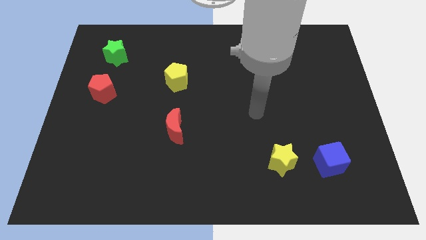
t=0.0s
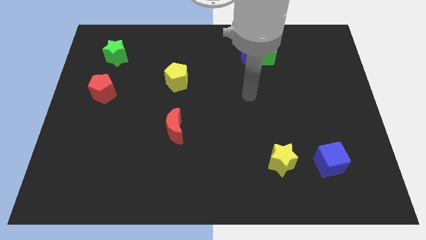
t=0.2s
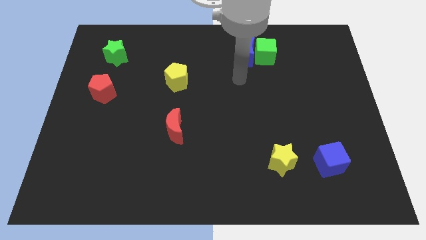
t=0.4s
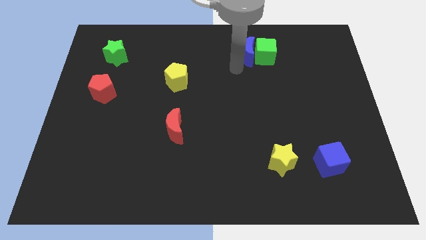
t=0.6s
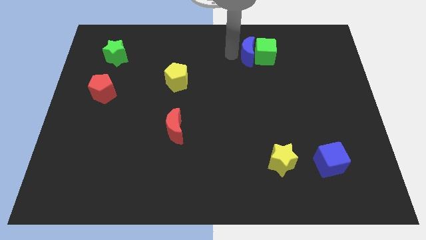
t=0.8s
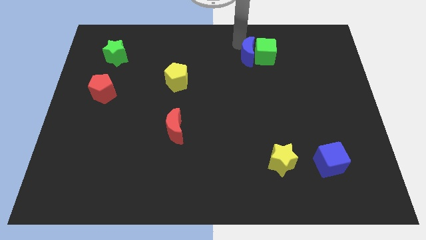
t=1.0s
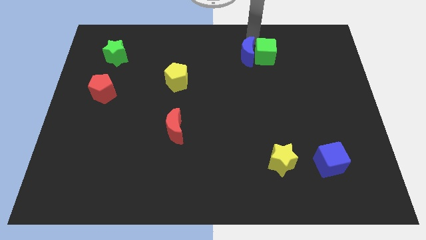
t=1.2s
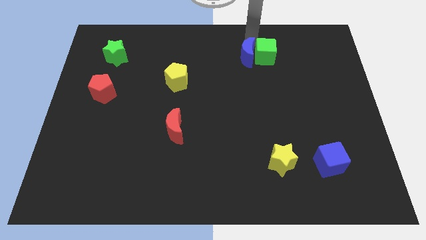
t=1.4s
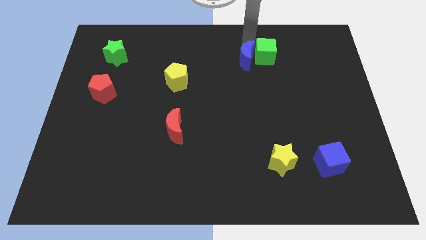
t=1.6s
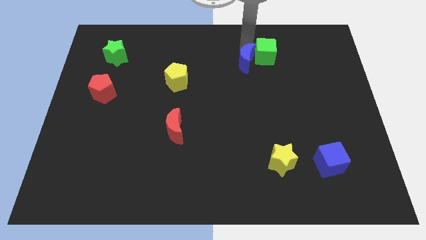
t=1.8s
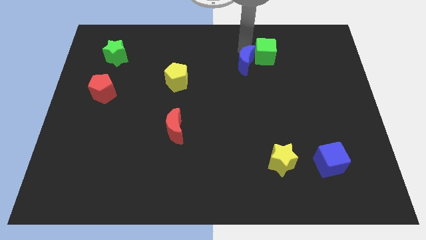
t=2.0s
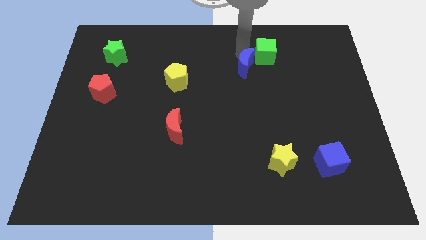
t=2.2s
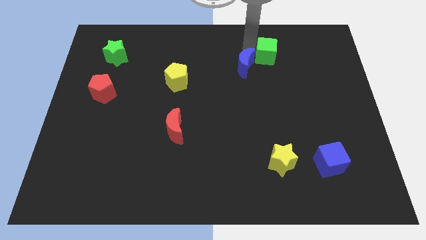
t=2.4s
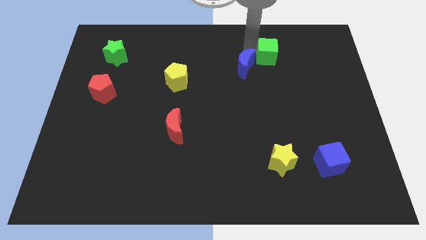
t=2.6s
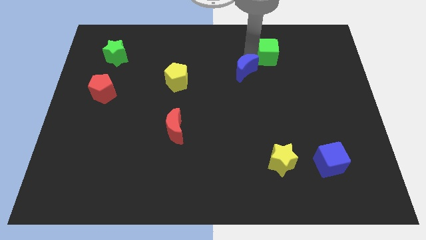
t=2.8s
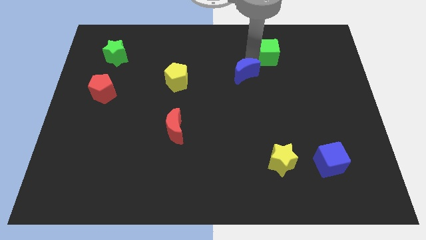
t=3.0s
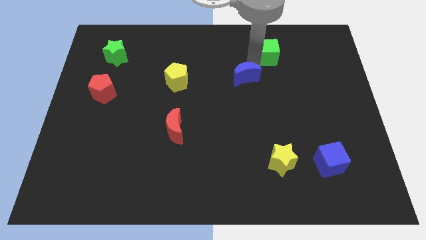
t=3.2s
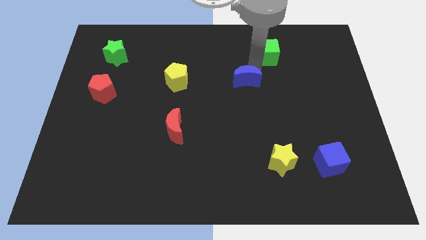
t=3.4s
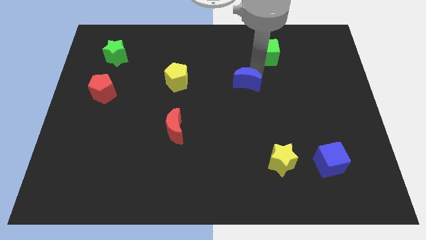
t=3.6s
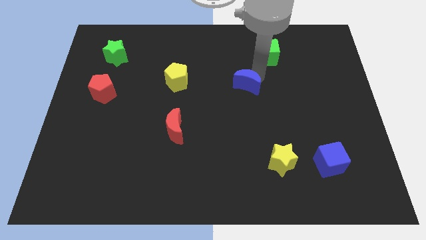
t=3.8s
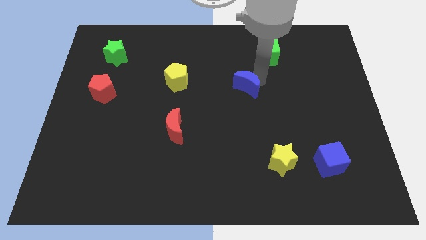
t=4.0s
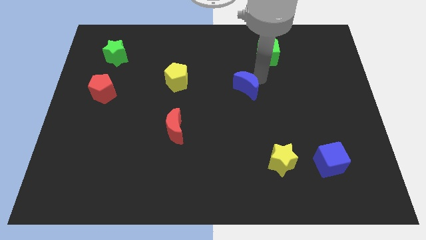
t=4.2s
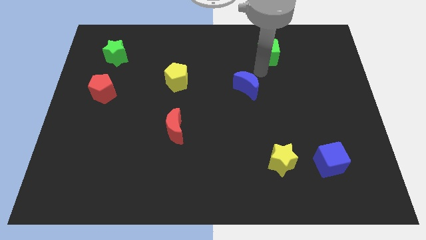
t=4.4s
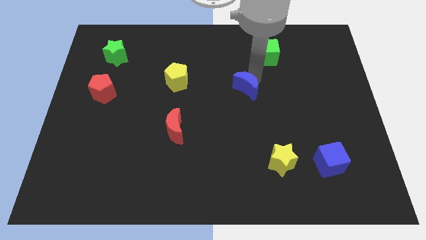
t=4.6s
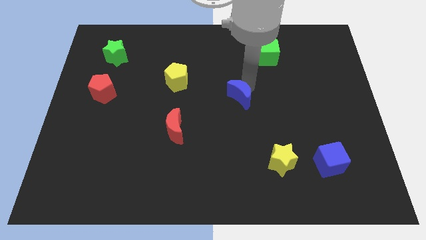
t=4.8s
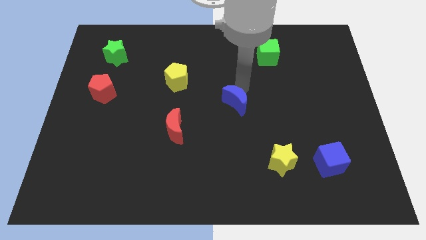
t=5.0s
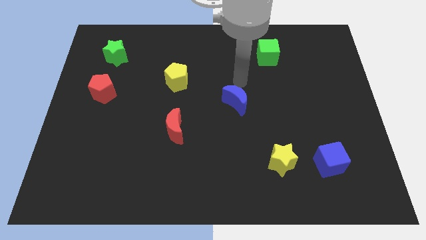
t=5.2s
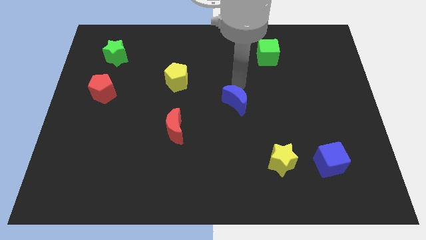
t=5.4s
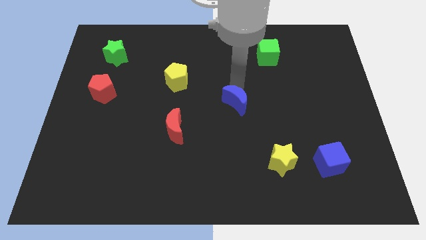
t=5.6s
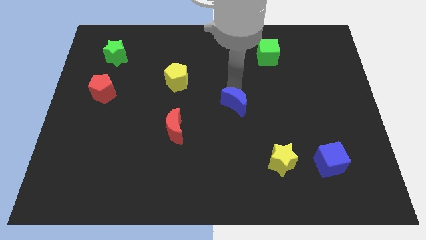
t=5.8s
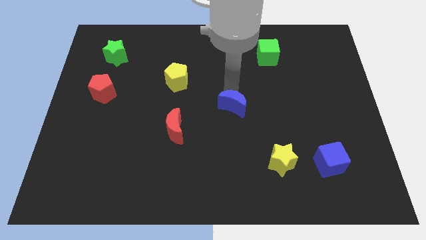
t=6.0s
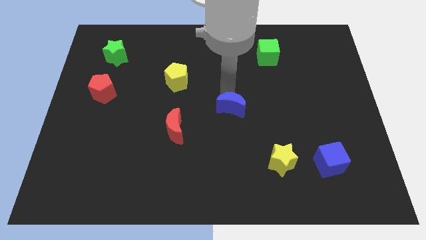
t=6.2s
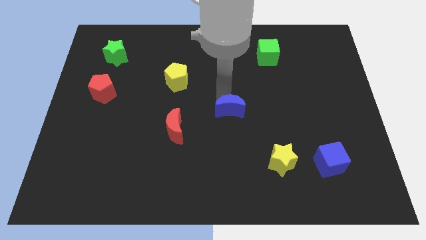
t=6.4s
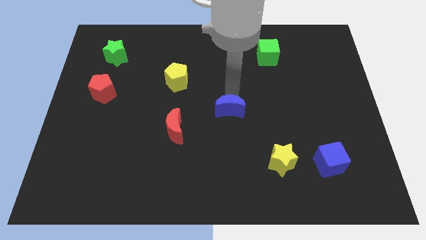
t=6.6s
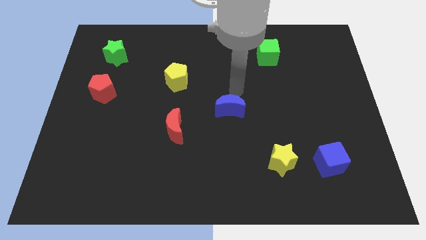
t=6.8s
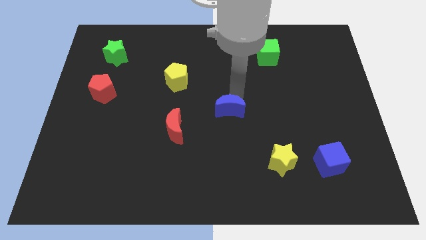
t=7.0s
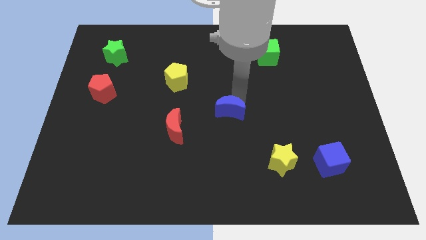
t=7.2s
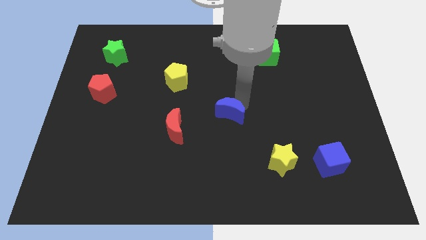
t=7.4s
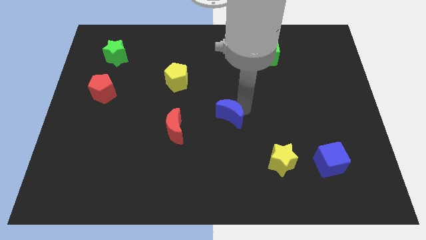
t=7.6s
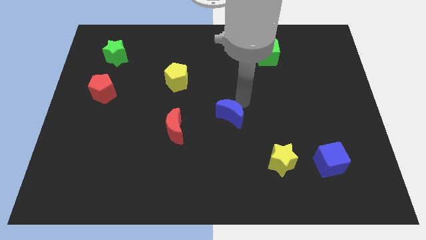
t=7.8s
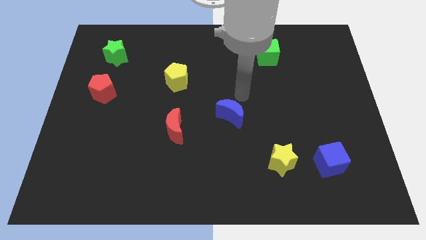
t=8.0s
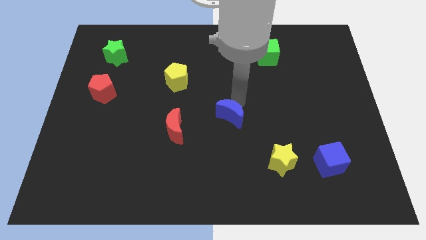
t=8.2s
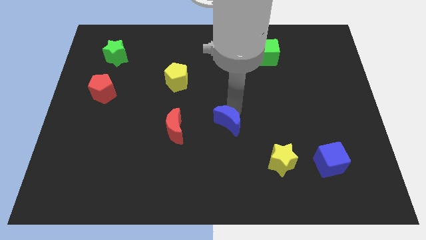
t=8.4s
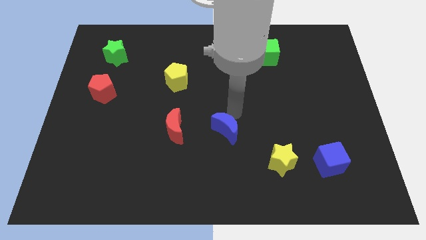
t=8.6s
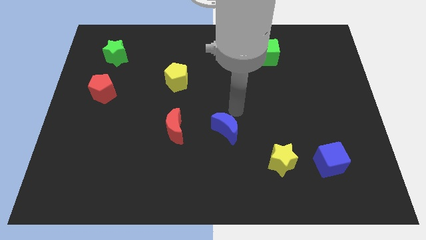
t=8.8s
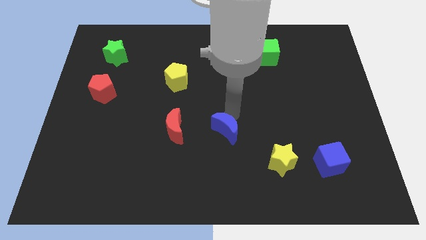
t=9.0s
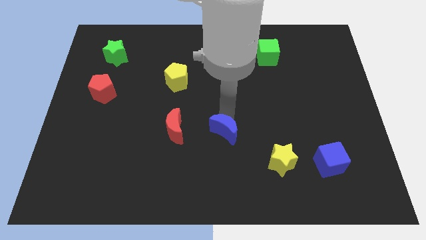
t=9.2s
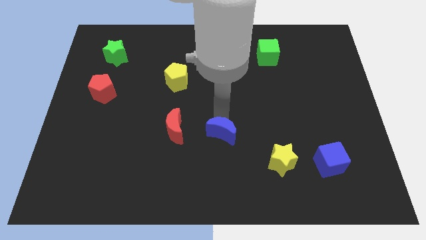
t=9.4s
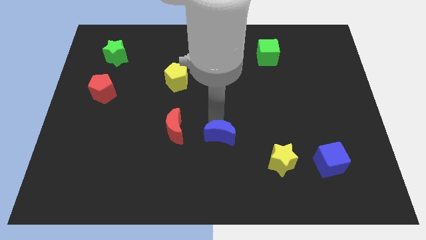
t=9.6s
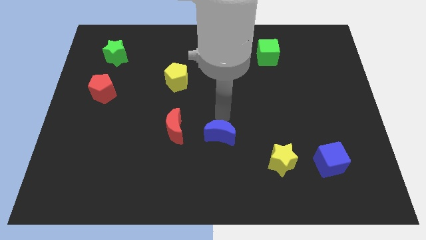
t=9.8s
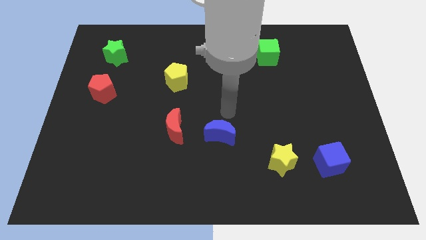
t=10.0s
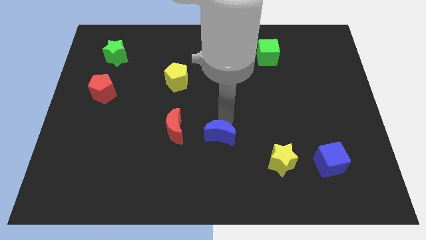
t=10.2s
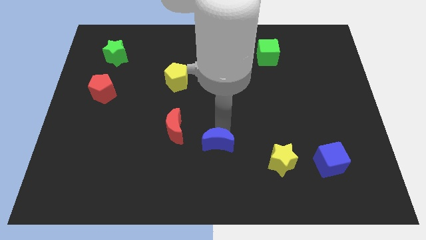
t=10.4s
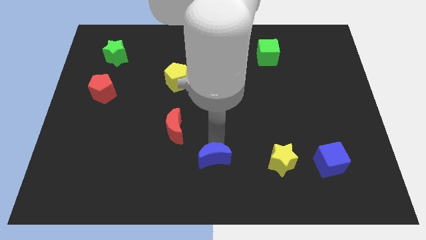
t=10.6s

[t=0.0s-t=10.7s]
put the blue moon to the bottom side

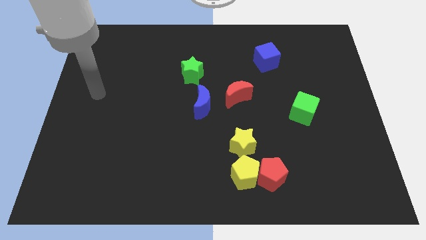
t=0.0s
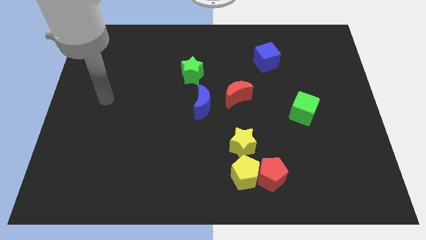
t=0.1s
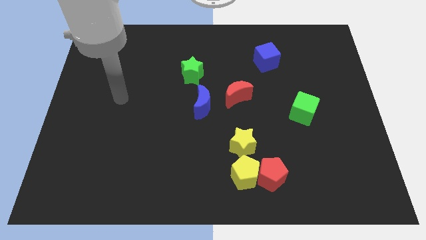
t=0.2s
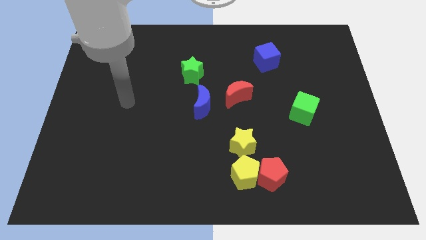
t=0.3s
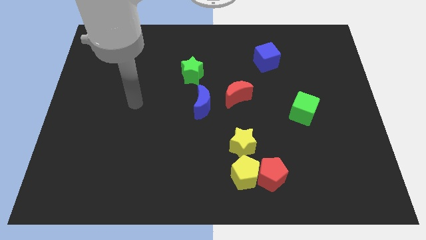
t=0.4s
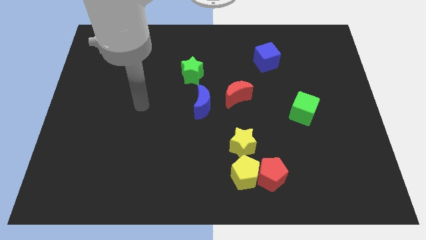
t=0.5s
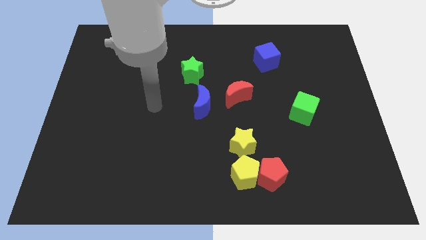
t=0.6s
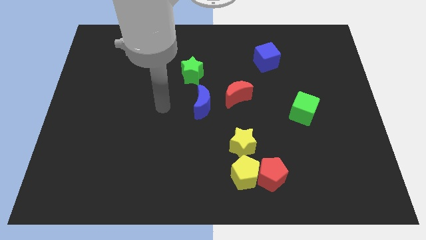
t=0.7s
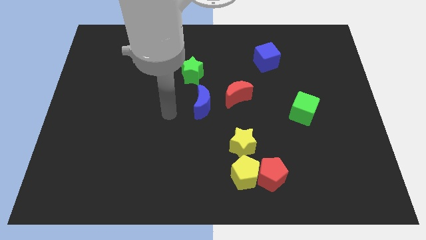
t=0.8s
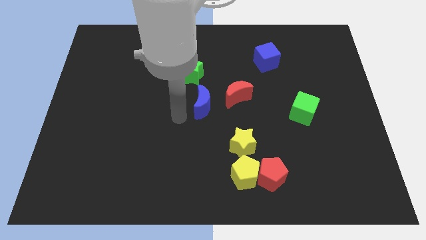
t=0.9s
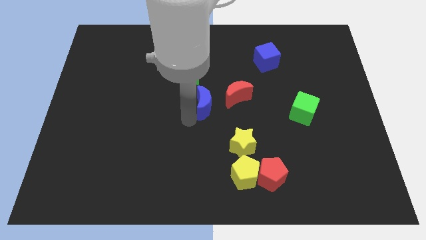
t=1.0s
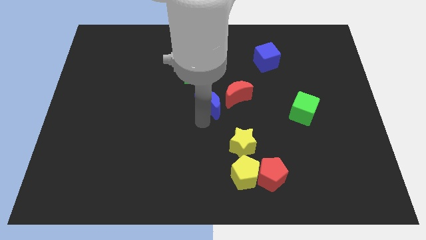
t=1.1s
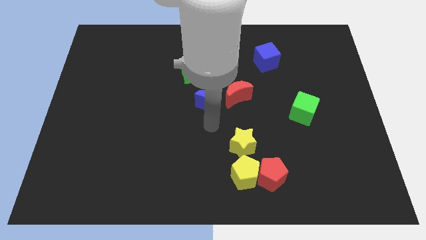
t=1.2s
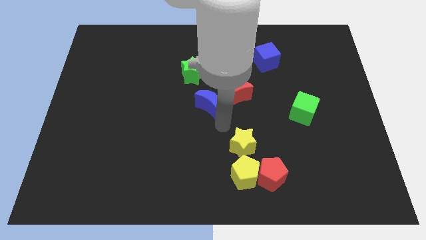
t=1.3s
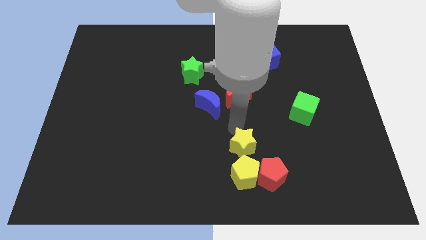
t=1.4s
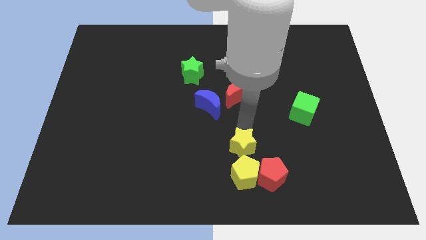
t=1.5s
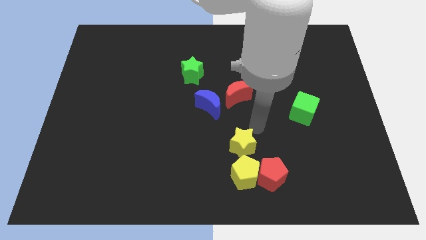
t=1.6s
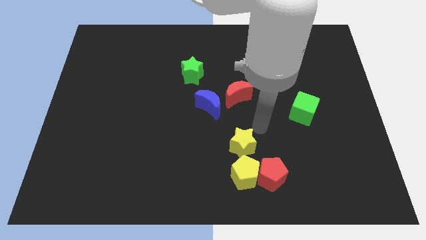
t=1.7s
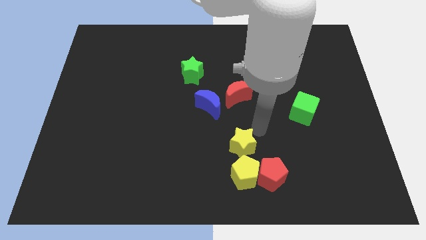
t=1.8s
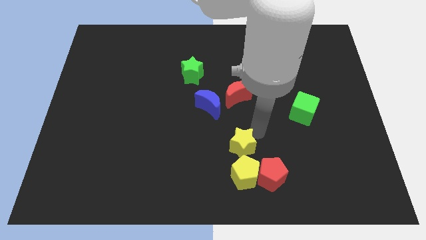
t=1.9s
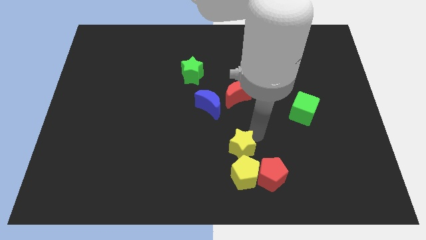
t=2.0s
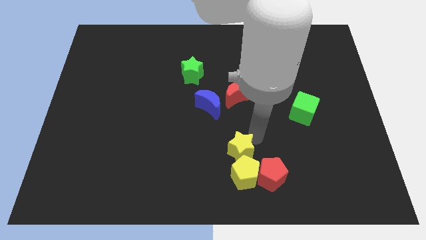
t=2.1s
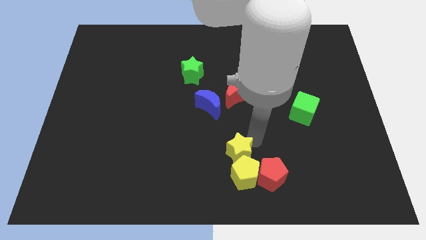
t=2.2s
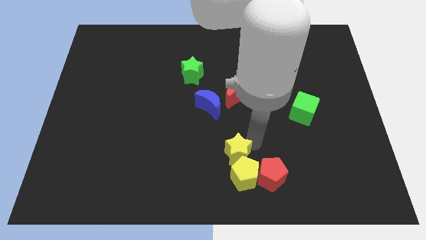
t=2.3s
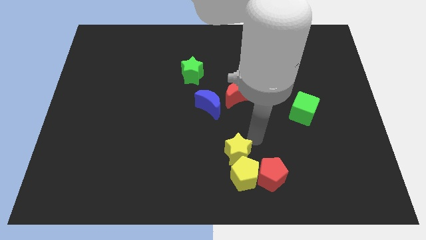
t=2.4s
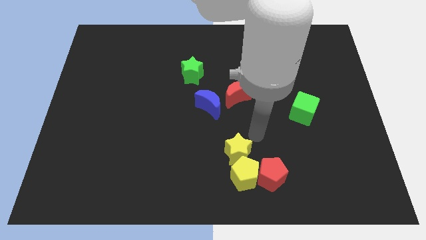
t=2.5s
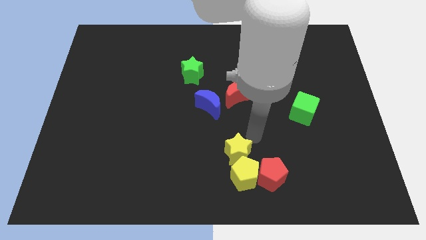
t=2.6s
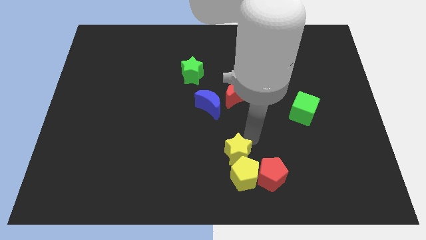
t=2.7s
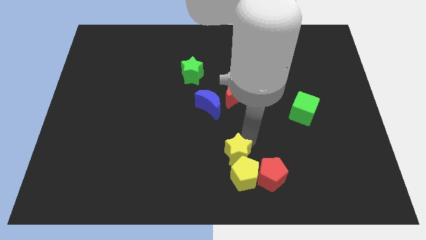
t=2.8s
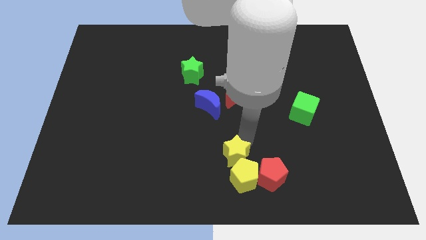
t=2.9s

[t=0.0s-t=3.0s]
move the yellow star to the bottom side
